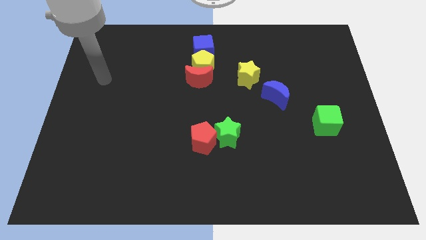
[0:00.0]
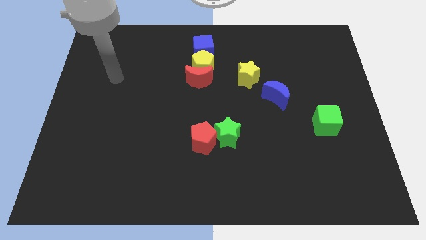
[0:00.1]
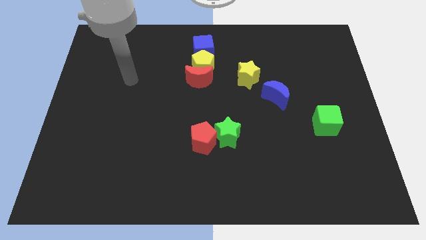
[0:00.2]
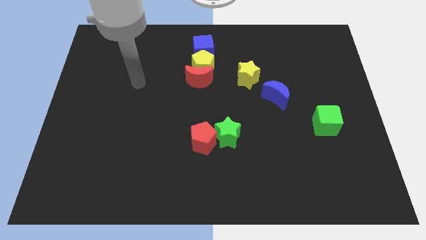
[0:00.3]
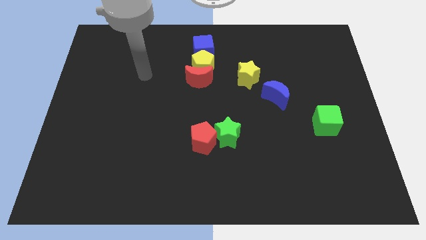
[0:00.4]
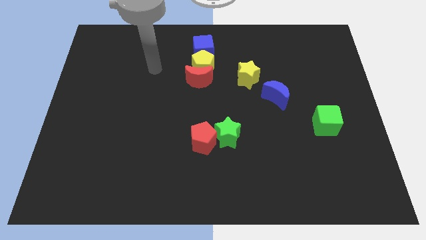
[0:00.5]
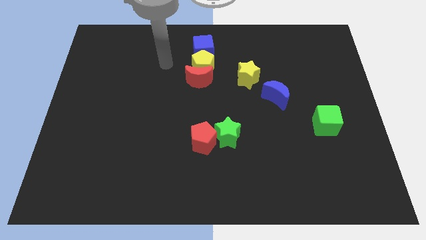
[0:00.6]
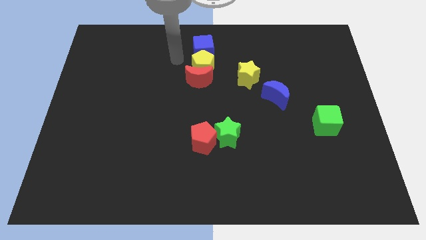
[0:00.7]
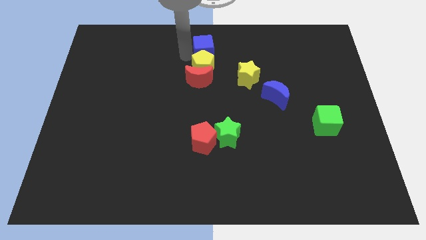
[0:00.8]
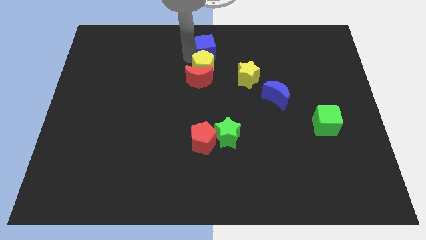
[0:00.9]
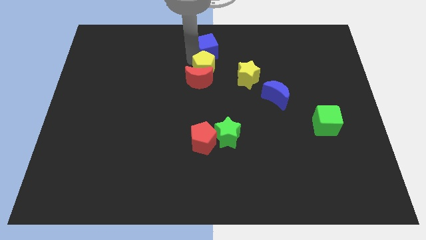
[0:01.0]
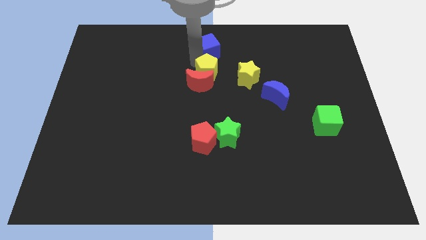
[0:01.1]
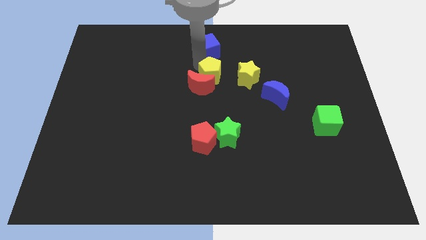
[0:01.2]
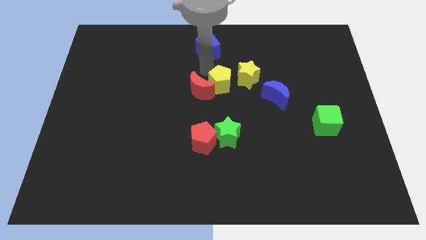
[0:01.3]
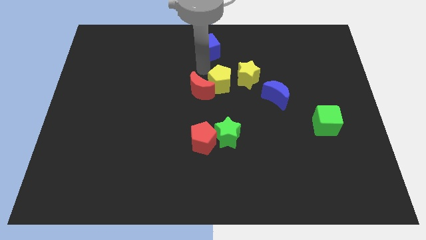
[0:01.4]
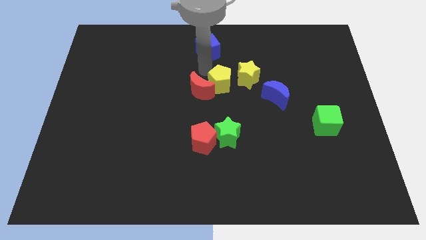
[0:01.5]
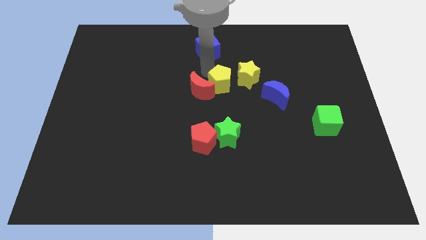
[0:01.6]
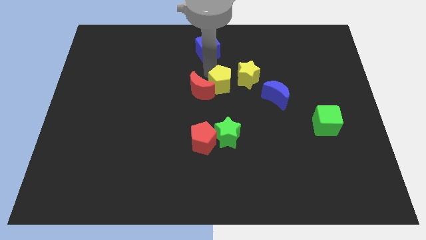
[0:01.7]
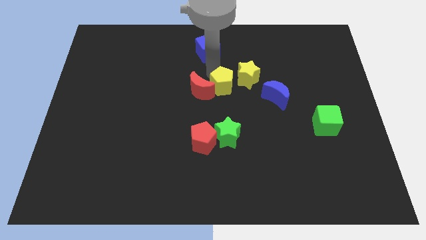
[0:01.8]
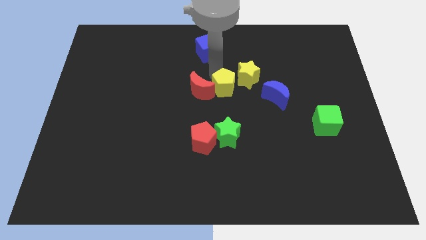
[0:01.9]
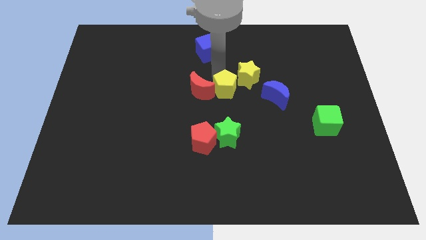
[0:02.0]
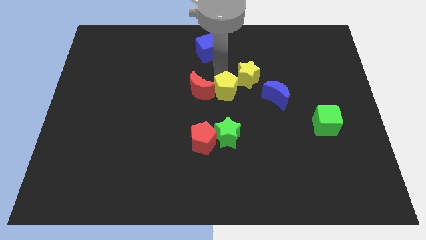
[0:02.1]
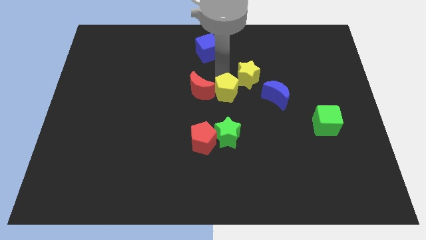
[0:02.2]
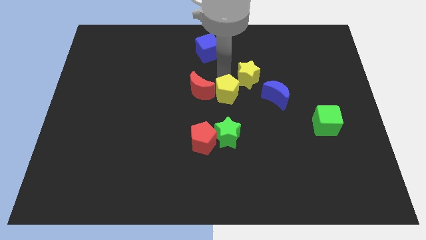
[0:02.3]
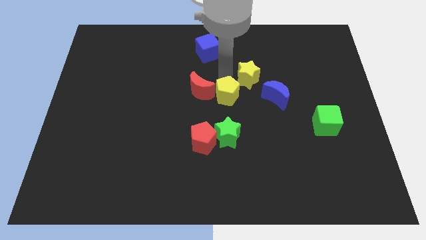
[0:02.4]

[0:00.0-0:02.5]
pull the yellow pentagon apart from the red moon and blue cube

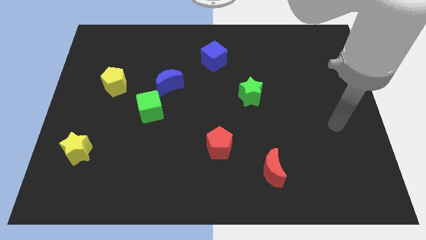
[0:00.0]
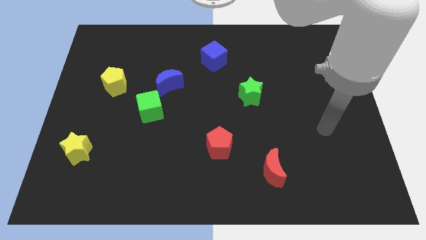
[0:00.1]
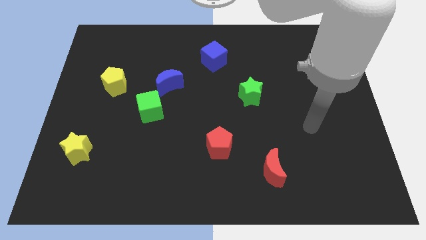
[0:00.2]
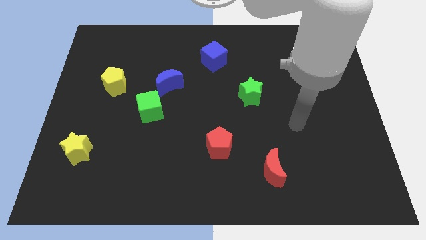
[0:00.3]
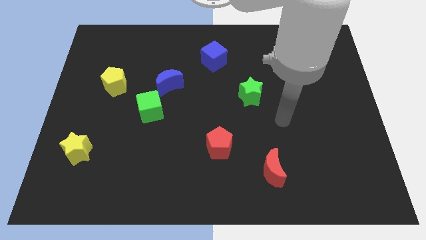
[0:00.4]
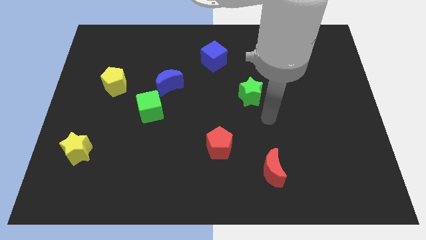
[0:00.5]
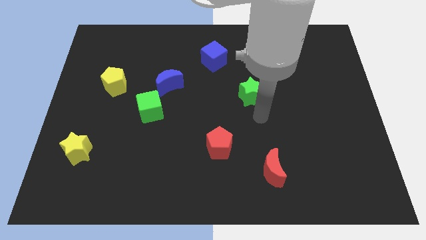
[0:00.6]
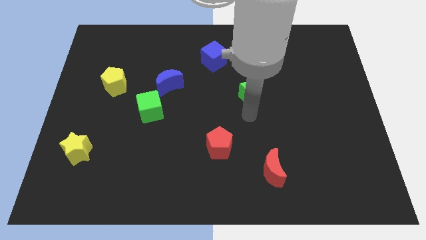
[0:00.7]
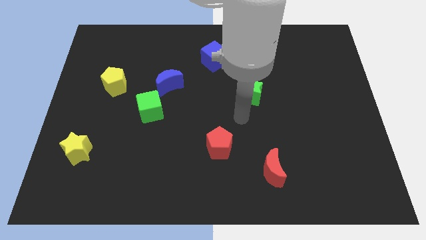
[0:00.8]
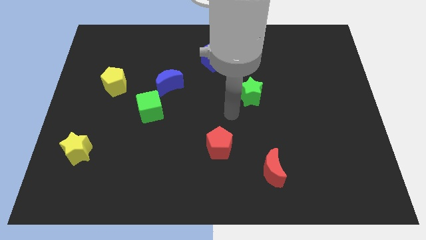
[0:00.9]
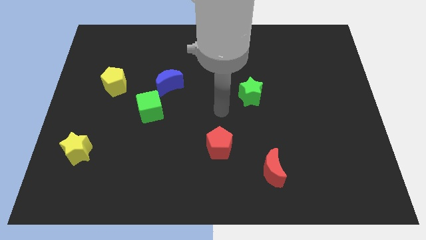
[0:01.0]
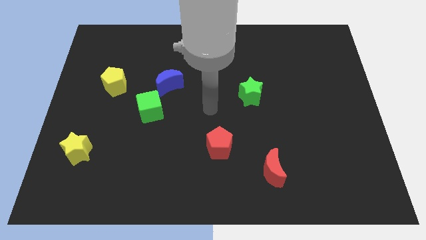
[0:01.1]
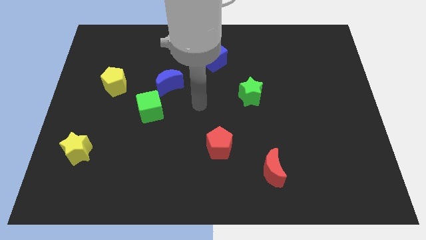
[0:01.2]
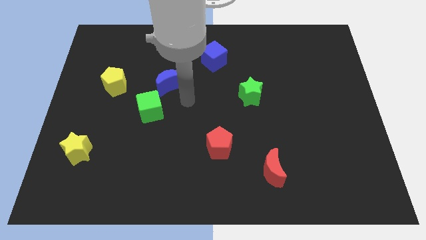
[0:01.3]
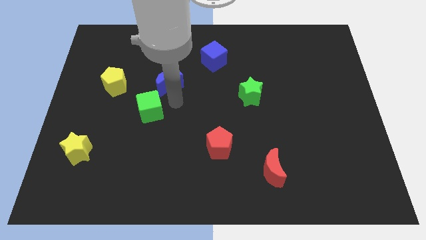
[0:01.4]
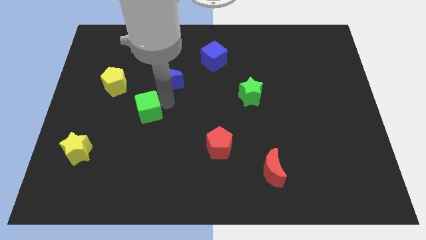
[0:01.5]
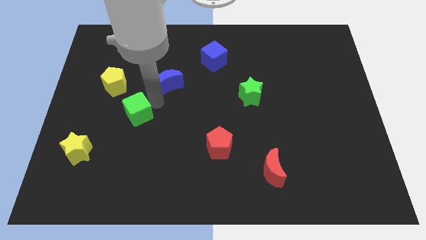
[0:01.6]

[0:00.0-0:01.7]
pull the blue moon apart from the green cube

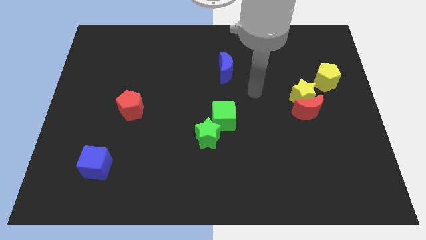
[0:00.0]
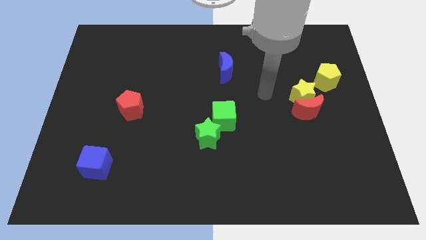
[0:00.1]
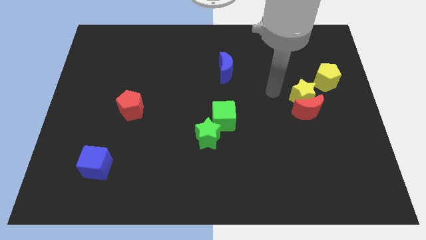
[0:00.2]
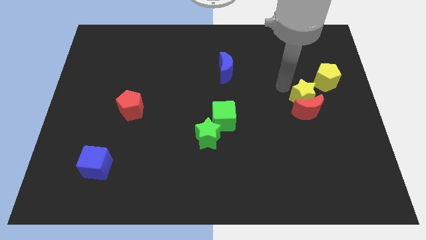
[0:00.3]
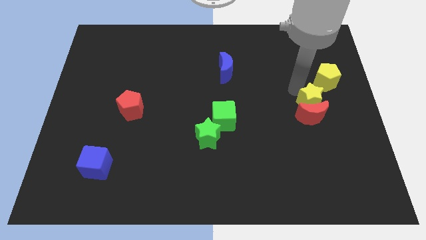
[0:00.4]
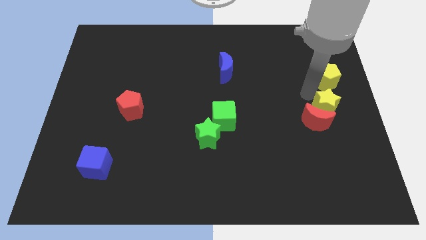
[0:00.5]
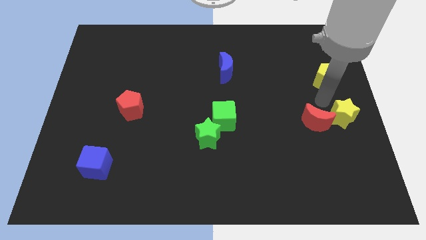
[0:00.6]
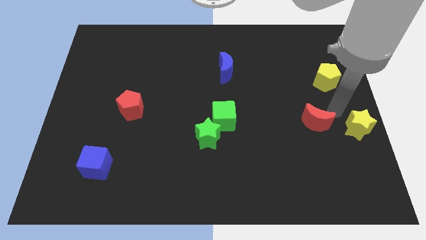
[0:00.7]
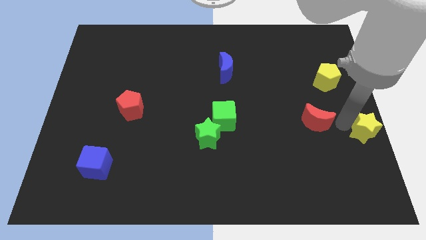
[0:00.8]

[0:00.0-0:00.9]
move the red moon away from the yellow star

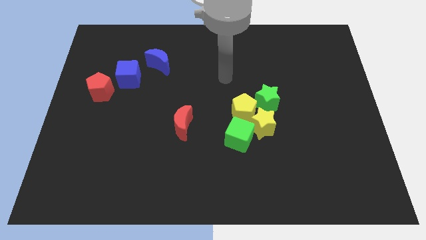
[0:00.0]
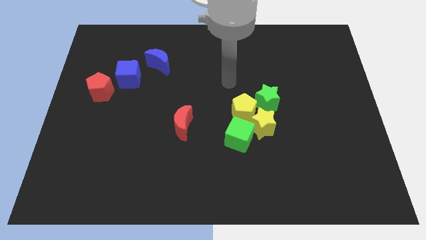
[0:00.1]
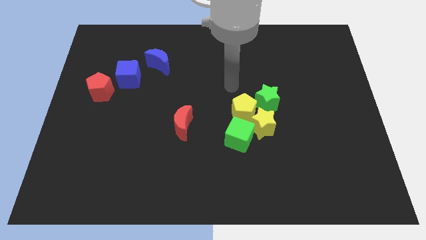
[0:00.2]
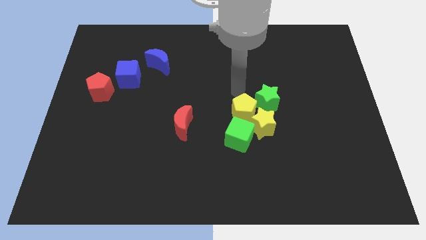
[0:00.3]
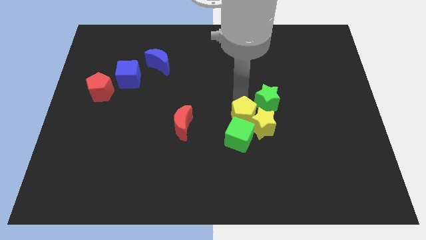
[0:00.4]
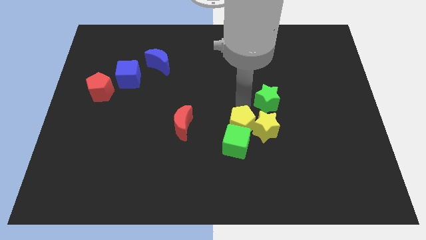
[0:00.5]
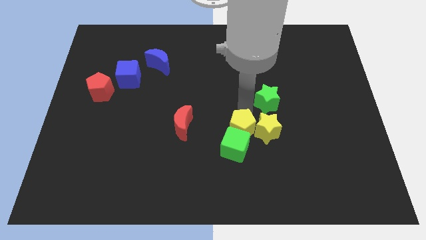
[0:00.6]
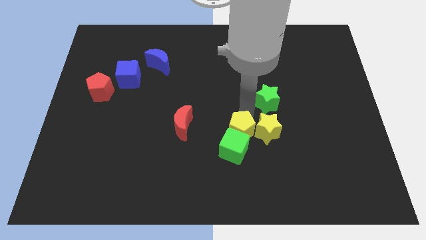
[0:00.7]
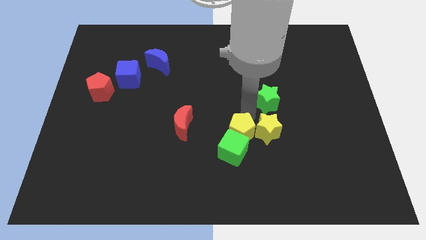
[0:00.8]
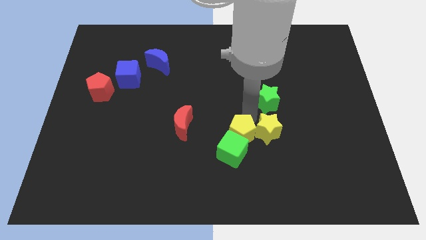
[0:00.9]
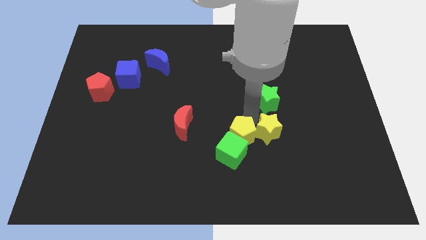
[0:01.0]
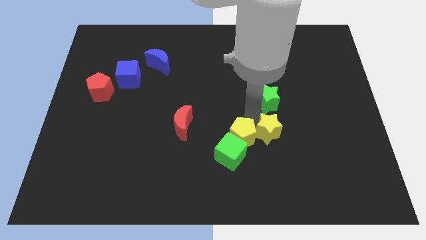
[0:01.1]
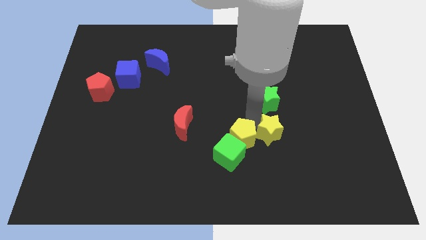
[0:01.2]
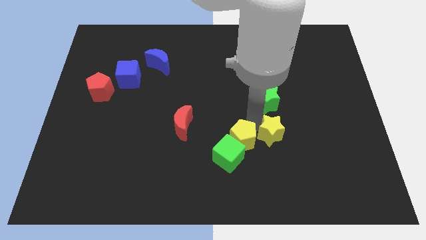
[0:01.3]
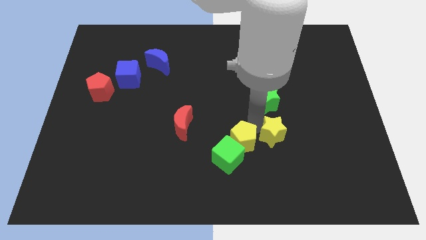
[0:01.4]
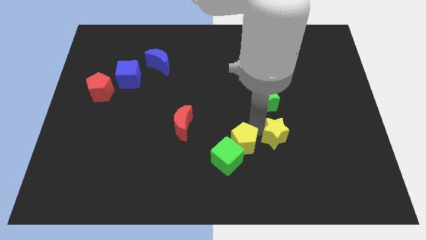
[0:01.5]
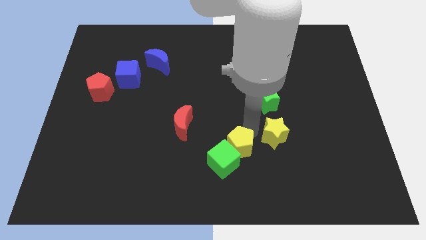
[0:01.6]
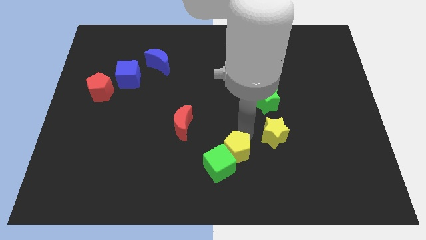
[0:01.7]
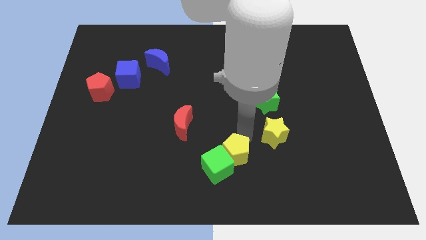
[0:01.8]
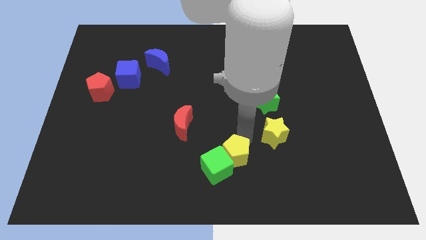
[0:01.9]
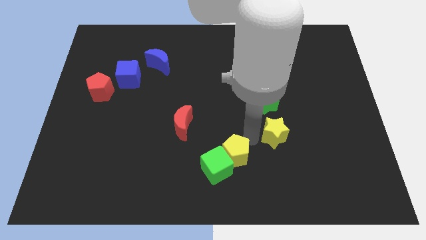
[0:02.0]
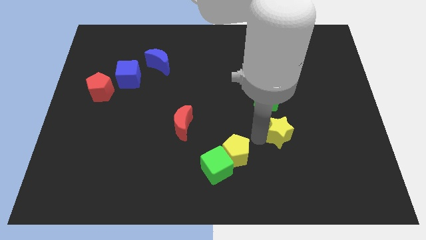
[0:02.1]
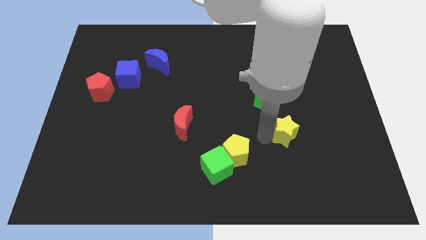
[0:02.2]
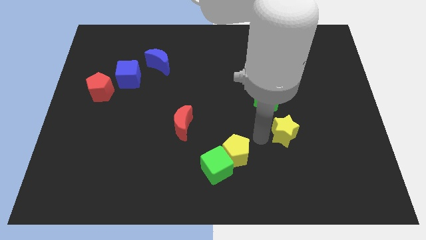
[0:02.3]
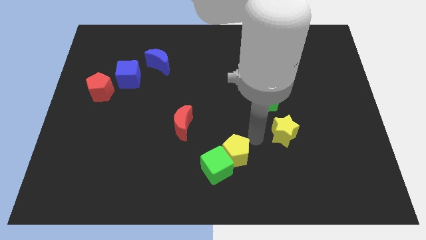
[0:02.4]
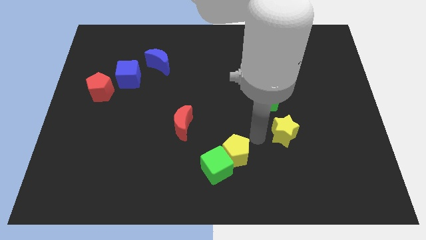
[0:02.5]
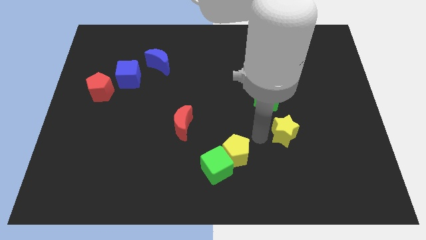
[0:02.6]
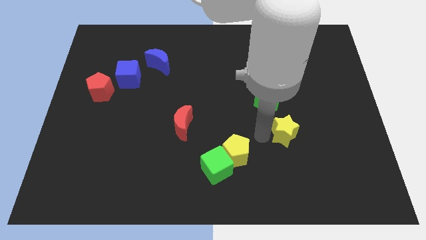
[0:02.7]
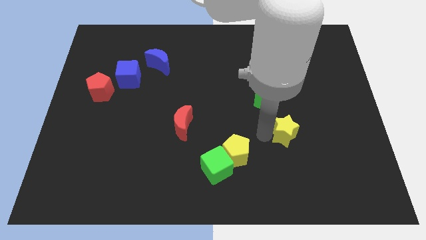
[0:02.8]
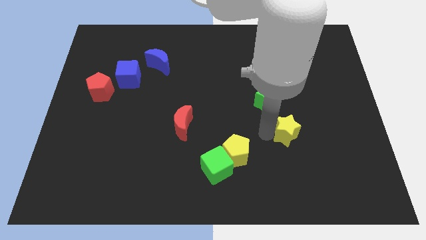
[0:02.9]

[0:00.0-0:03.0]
move the yellow star away from the group of blocks

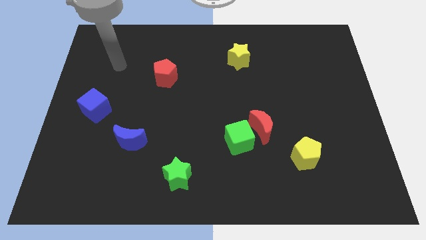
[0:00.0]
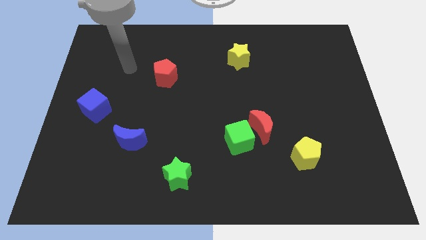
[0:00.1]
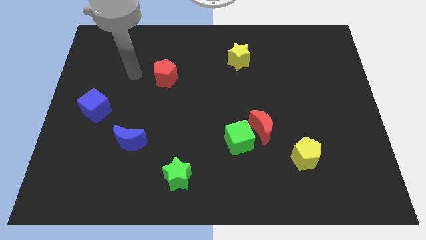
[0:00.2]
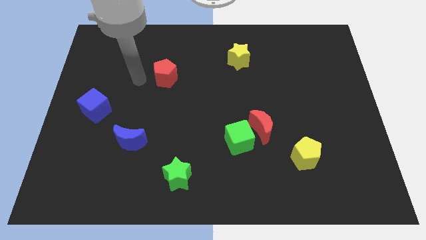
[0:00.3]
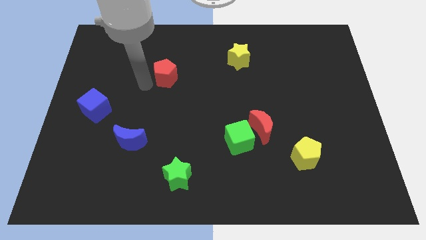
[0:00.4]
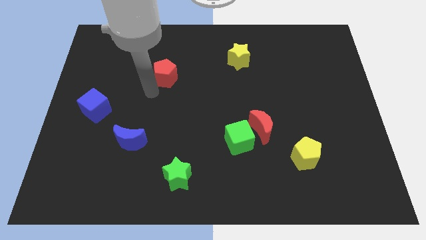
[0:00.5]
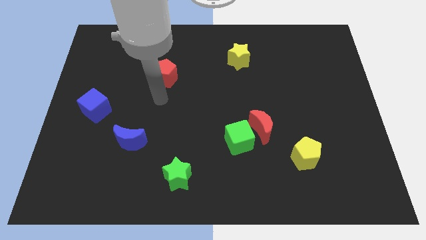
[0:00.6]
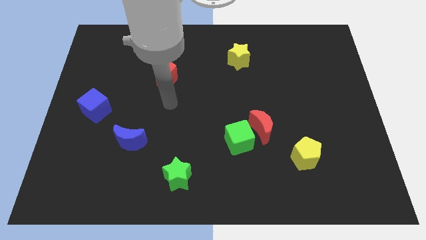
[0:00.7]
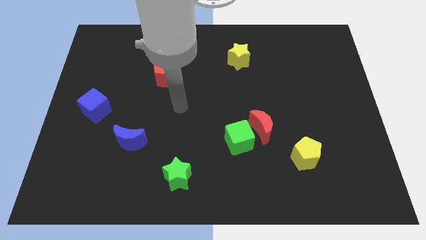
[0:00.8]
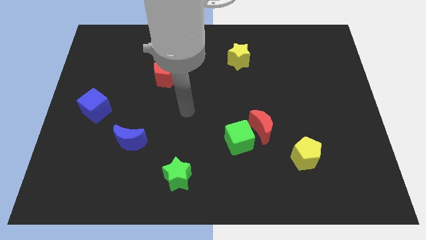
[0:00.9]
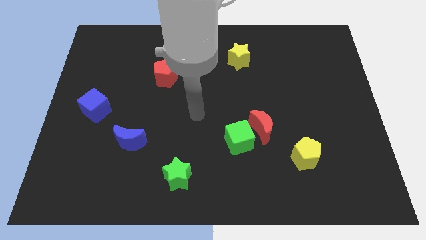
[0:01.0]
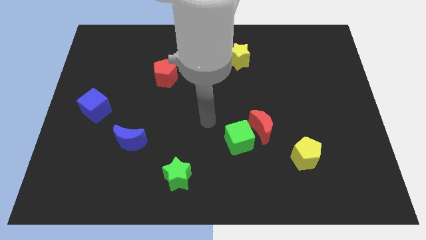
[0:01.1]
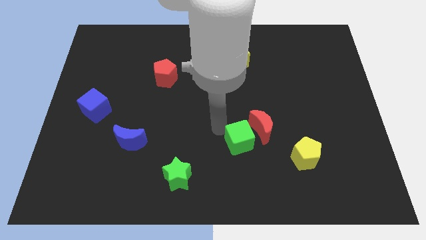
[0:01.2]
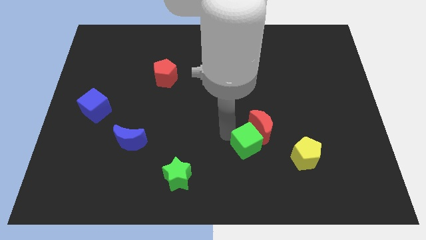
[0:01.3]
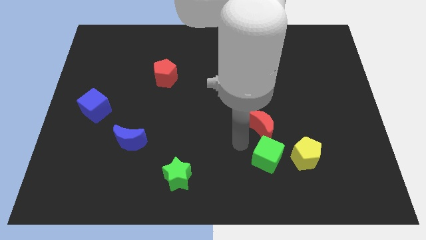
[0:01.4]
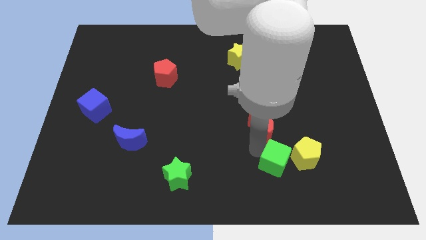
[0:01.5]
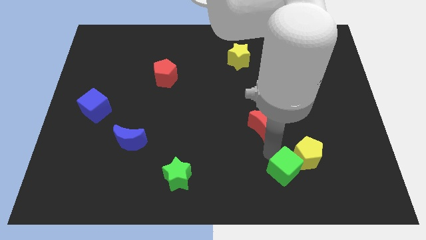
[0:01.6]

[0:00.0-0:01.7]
move the red moon away from the green cube
